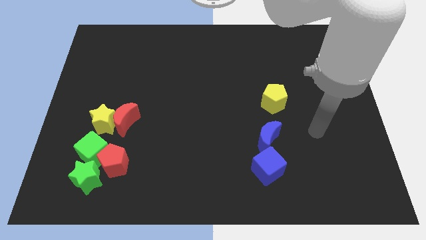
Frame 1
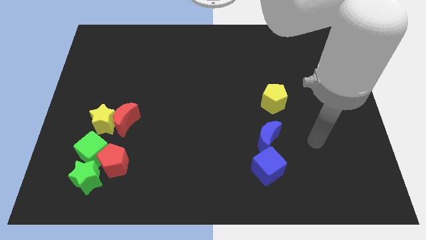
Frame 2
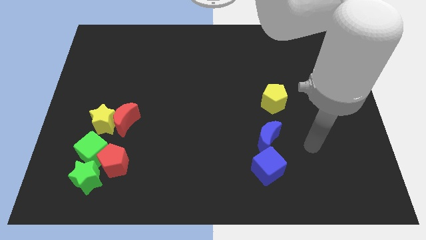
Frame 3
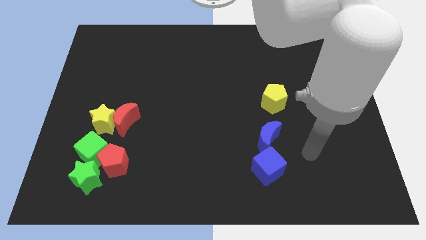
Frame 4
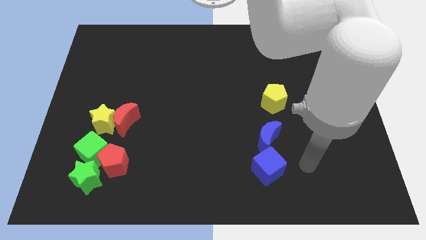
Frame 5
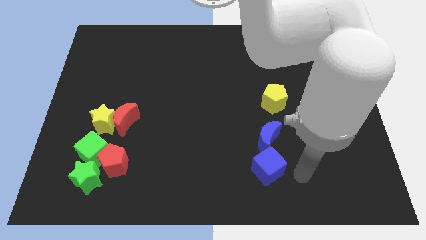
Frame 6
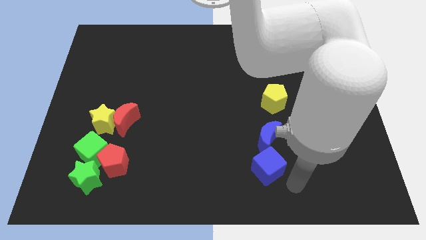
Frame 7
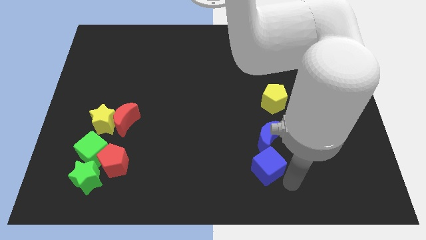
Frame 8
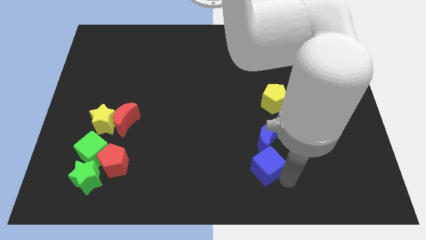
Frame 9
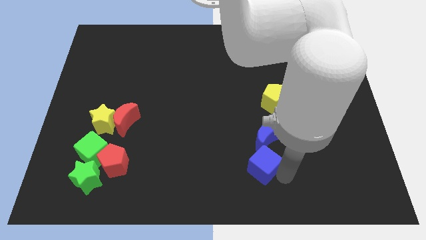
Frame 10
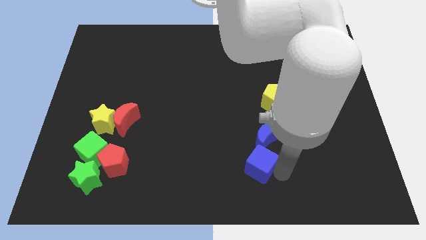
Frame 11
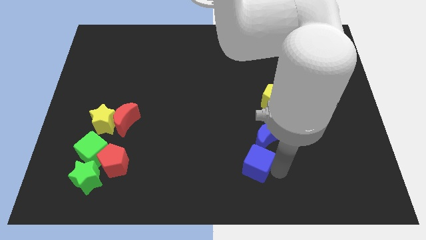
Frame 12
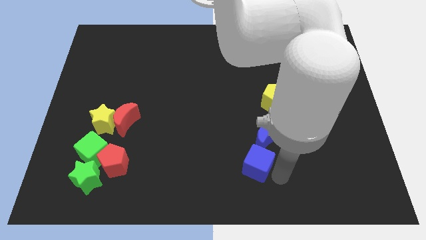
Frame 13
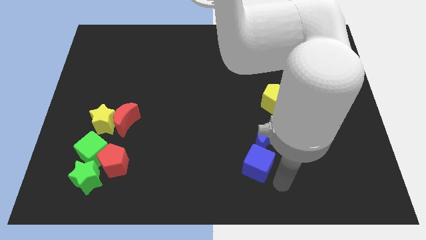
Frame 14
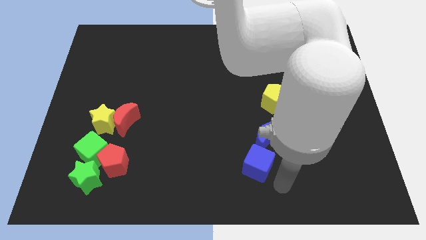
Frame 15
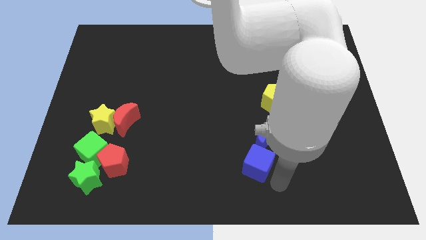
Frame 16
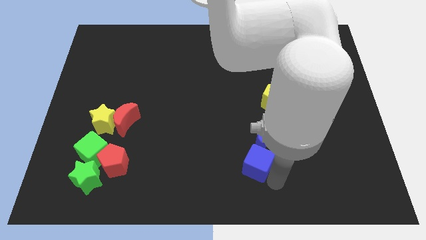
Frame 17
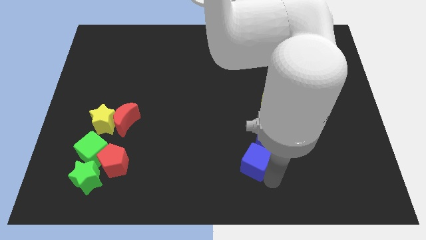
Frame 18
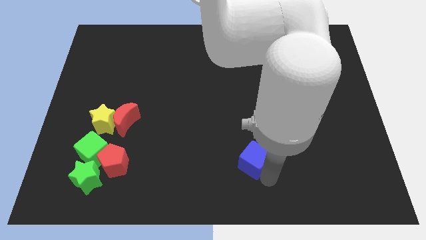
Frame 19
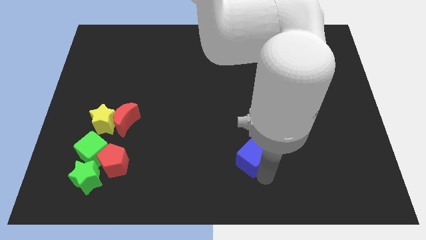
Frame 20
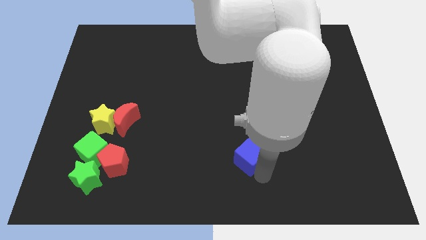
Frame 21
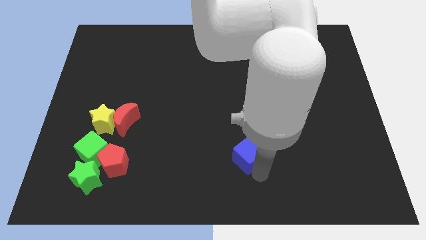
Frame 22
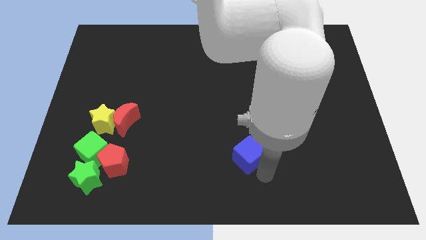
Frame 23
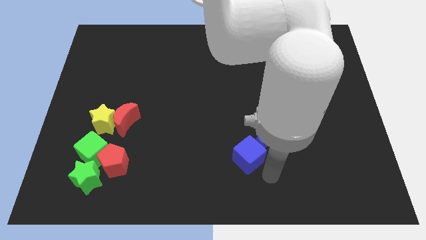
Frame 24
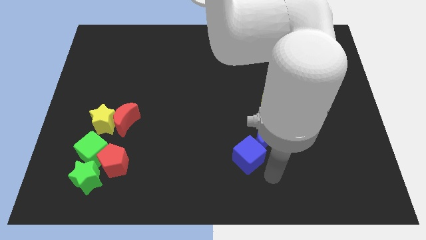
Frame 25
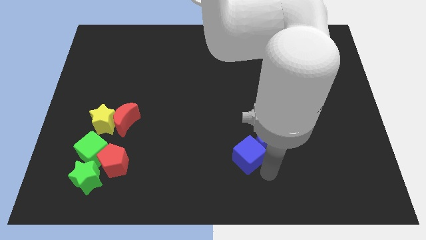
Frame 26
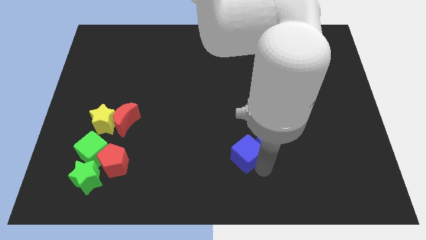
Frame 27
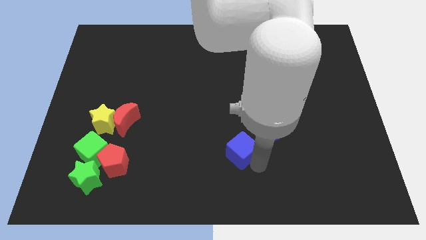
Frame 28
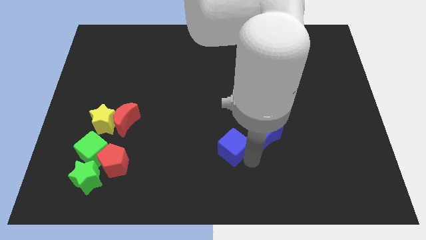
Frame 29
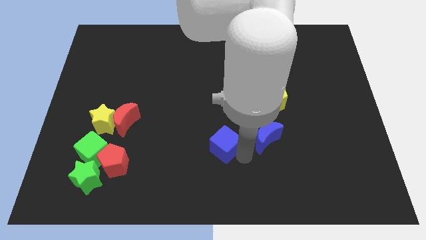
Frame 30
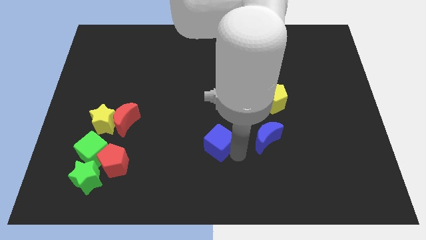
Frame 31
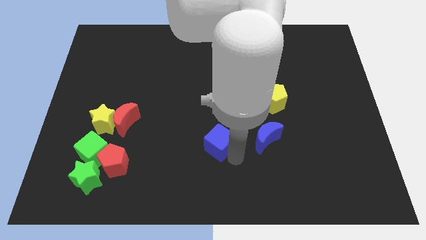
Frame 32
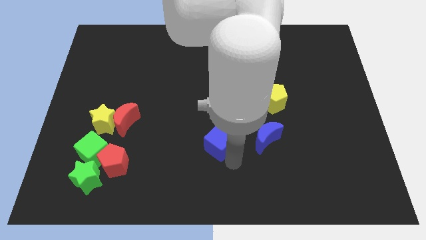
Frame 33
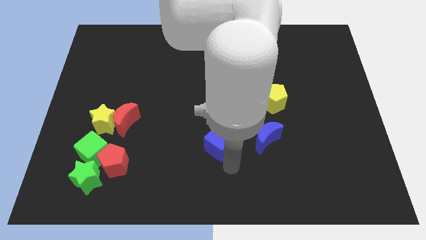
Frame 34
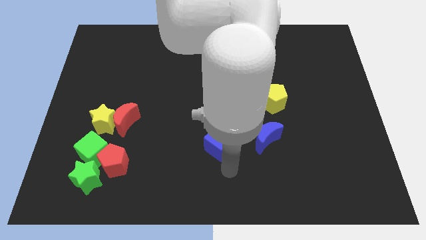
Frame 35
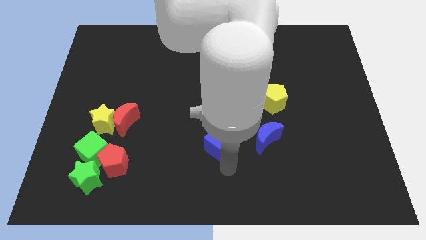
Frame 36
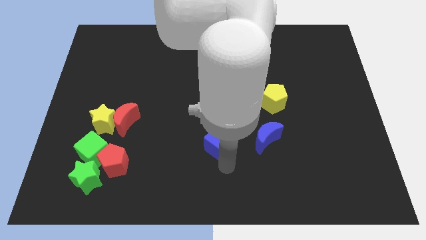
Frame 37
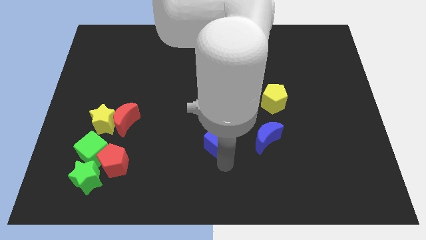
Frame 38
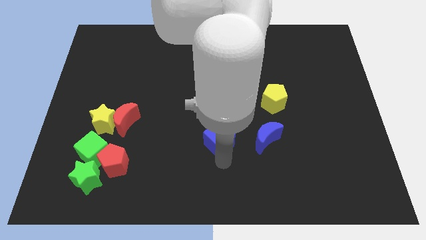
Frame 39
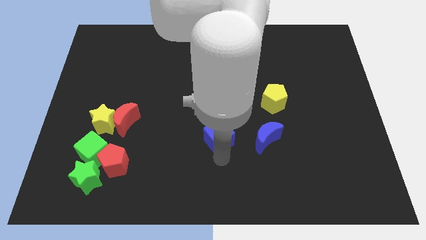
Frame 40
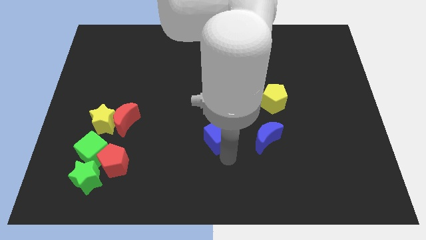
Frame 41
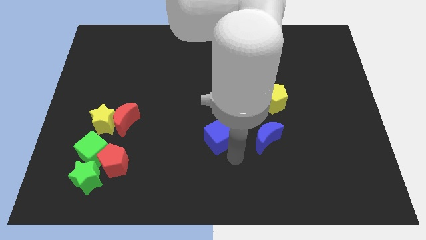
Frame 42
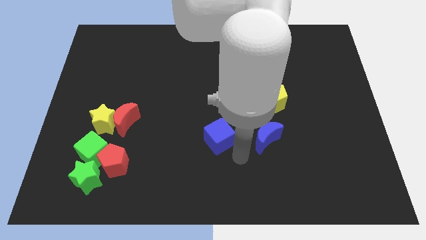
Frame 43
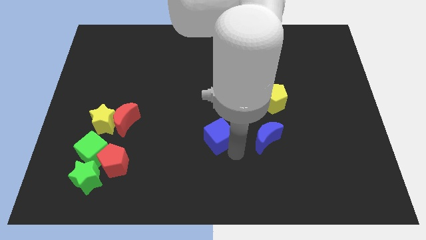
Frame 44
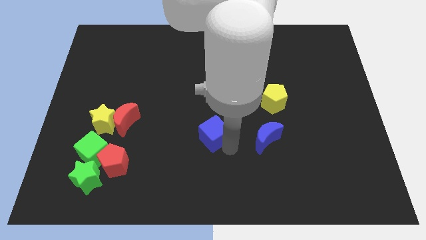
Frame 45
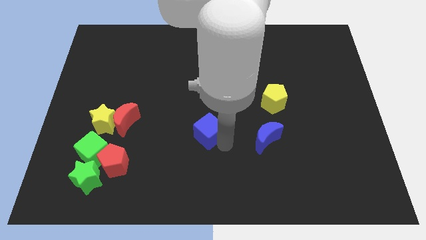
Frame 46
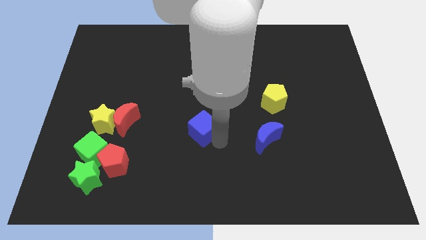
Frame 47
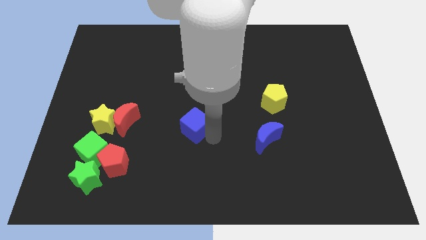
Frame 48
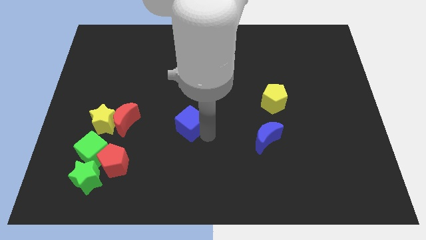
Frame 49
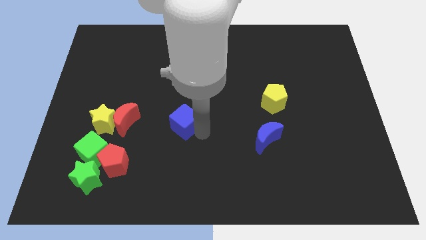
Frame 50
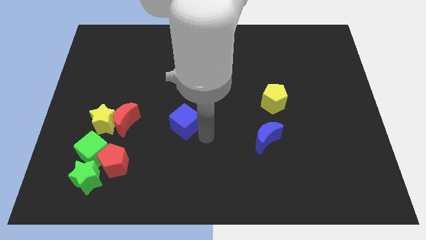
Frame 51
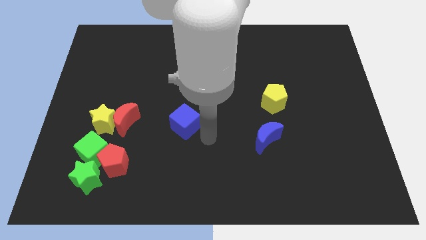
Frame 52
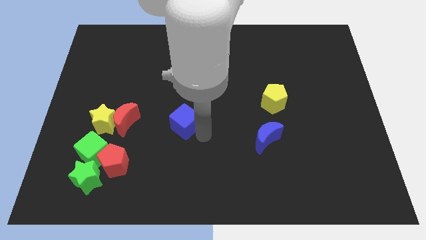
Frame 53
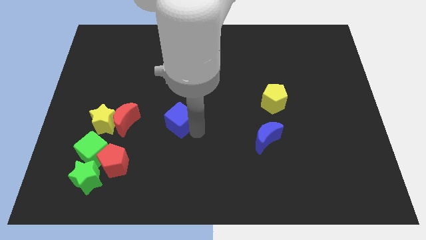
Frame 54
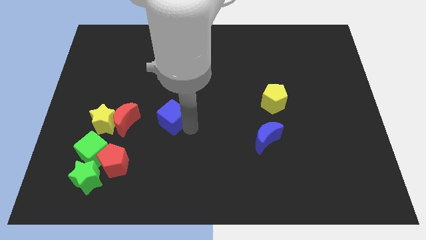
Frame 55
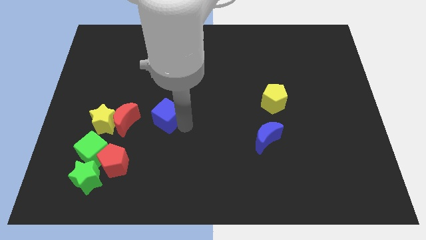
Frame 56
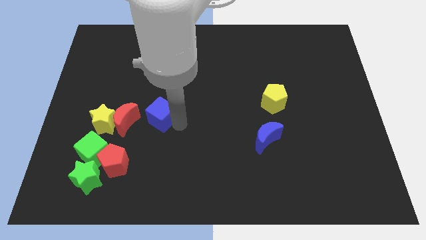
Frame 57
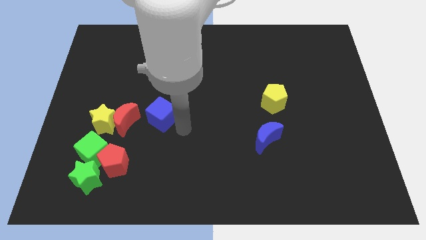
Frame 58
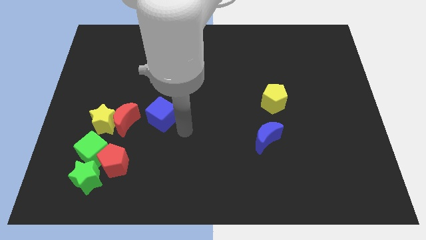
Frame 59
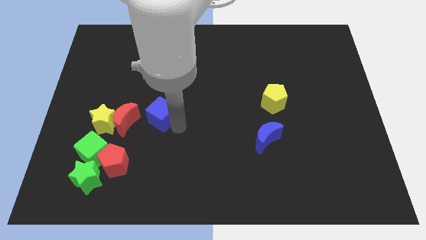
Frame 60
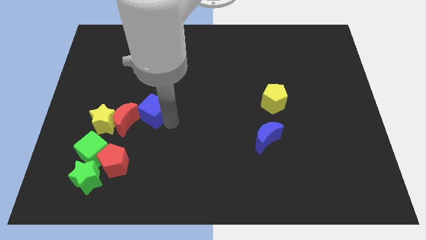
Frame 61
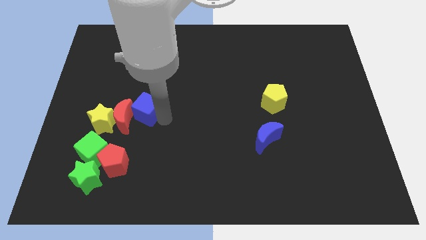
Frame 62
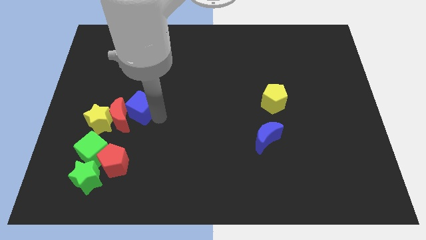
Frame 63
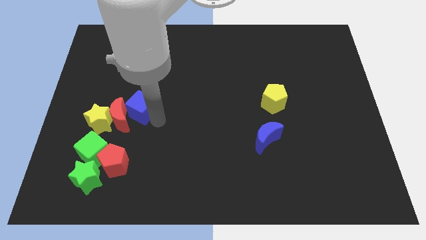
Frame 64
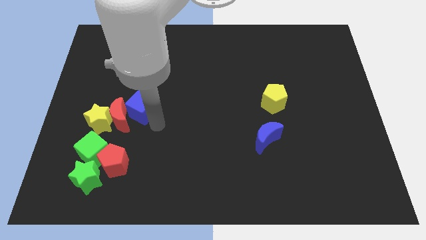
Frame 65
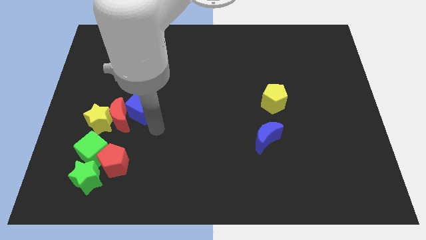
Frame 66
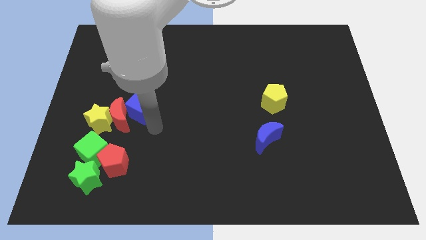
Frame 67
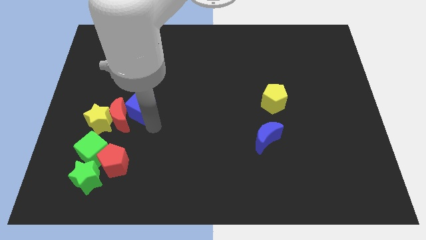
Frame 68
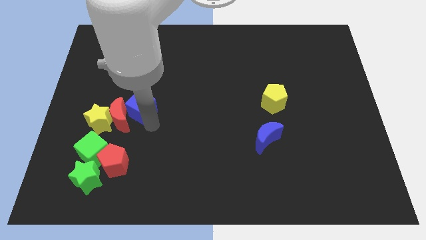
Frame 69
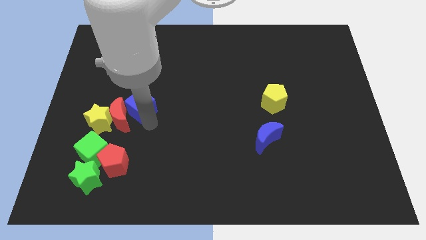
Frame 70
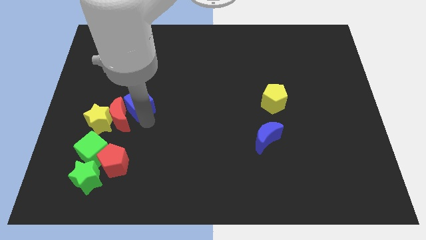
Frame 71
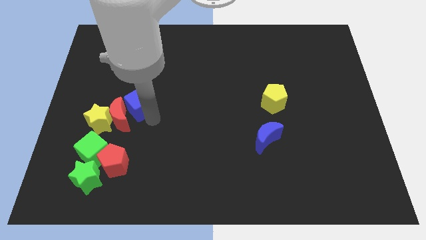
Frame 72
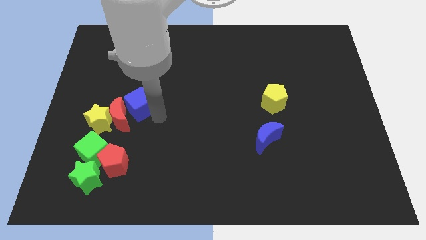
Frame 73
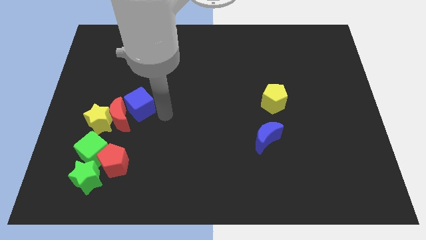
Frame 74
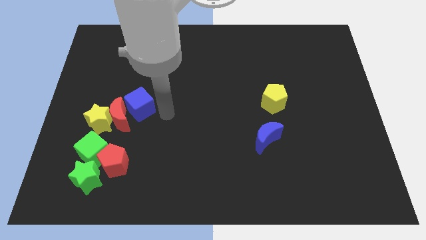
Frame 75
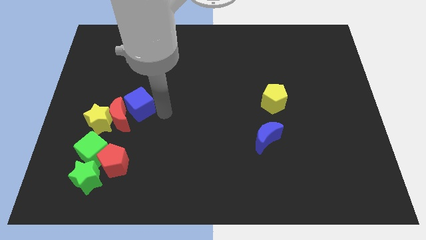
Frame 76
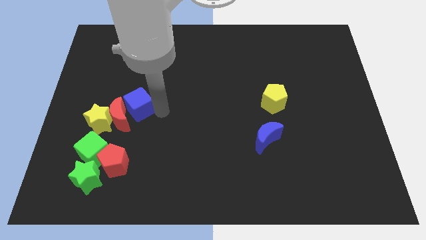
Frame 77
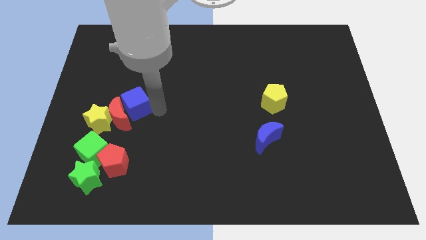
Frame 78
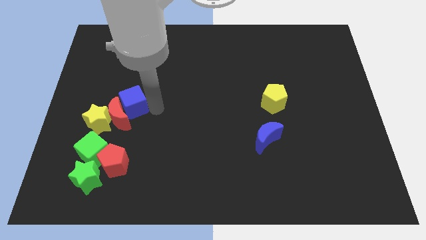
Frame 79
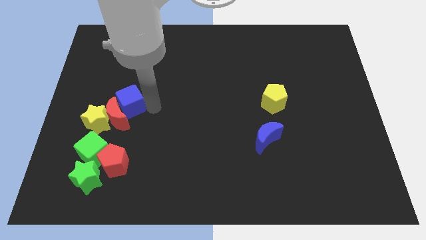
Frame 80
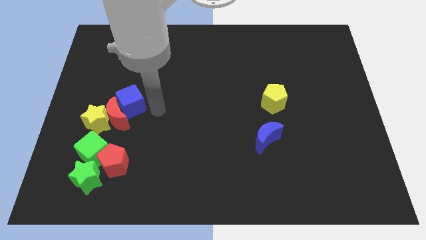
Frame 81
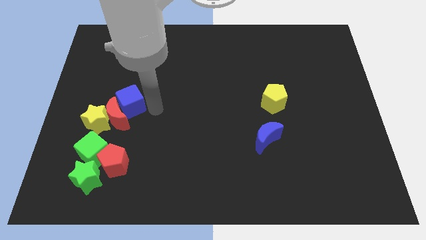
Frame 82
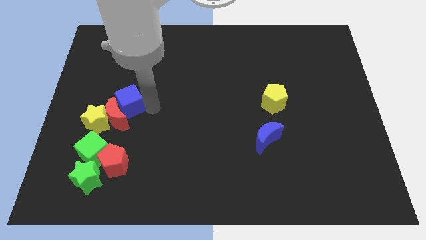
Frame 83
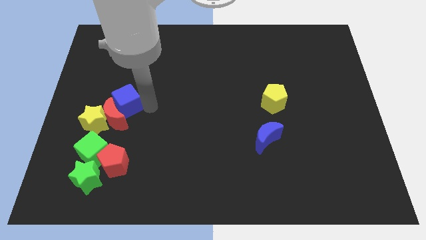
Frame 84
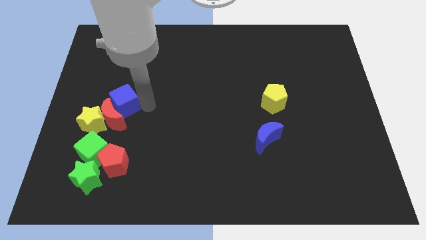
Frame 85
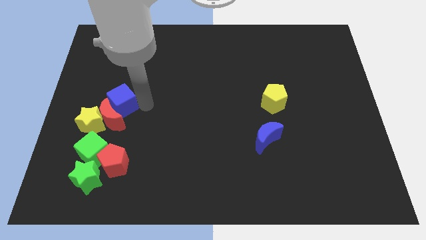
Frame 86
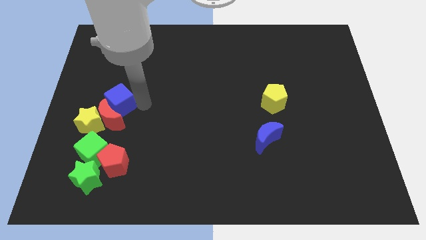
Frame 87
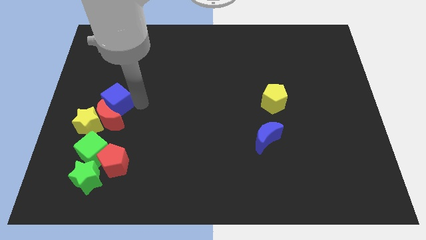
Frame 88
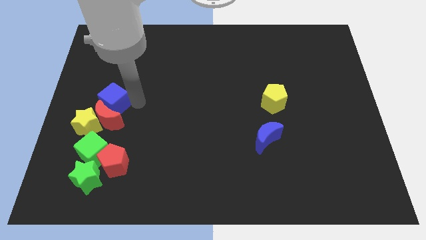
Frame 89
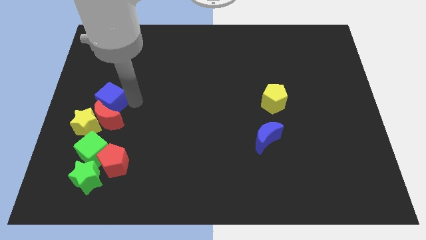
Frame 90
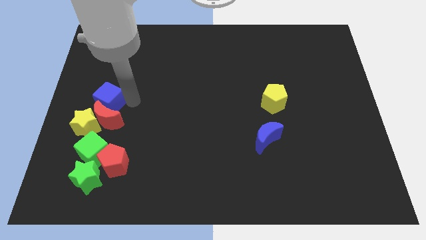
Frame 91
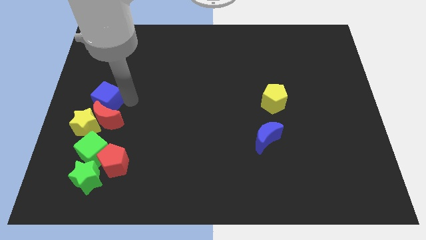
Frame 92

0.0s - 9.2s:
move the blue cube to the center left
